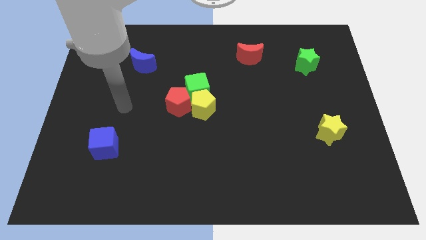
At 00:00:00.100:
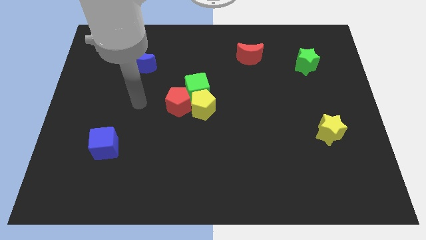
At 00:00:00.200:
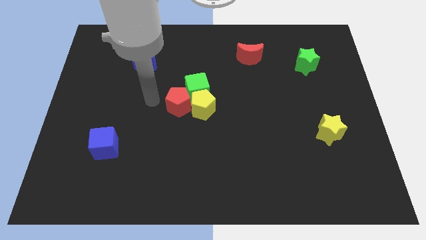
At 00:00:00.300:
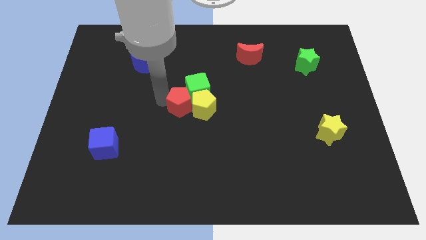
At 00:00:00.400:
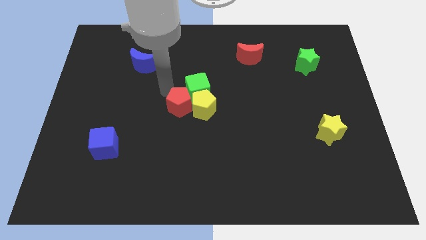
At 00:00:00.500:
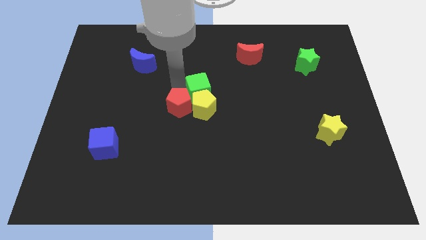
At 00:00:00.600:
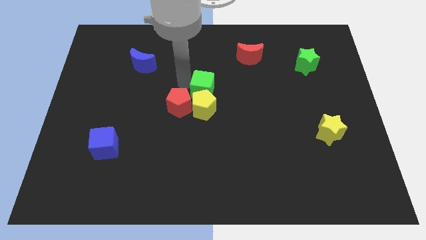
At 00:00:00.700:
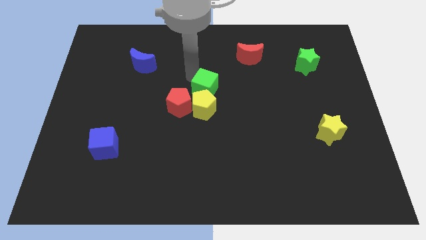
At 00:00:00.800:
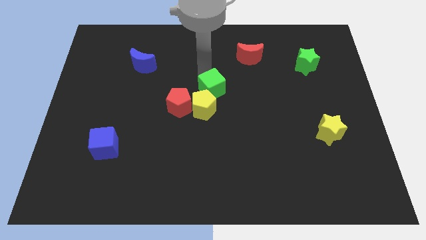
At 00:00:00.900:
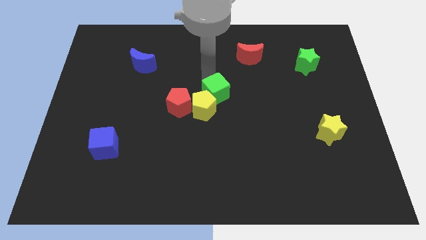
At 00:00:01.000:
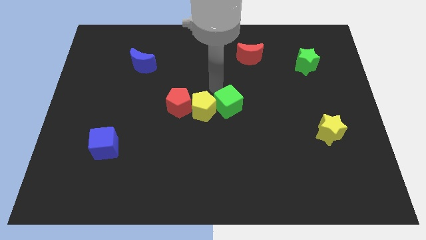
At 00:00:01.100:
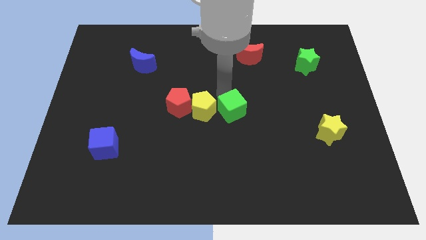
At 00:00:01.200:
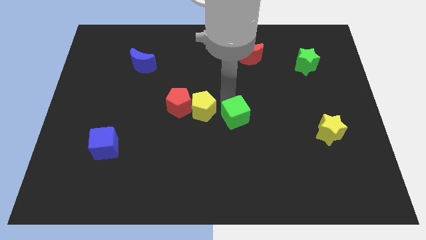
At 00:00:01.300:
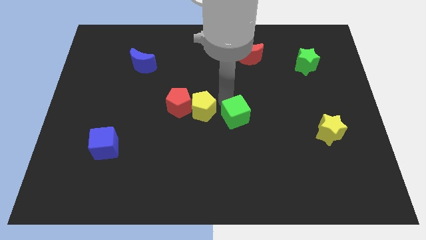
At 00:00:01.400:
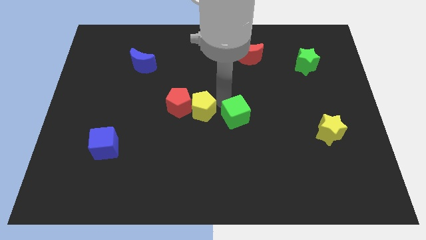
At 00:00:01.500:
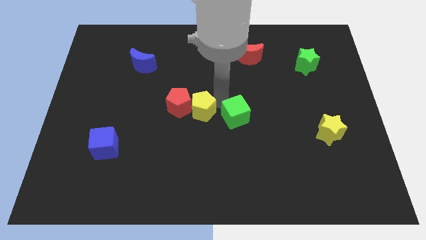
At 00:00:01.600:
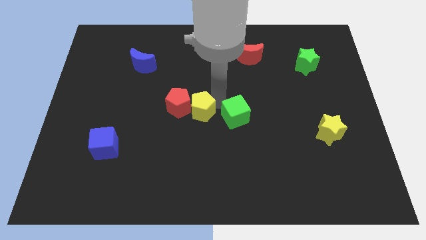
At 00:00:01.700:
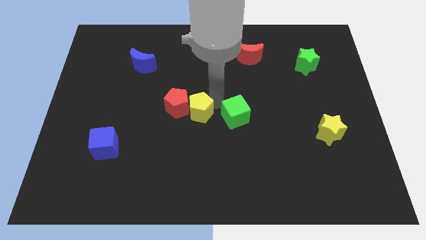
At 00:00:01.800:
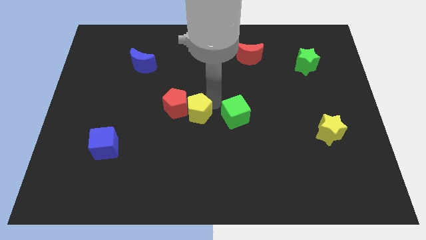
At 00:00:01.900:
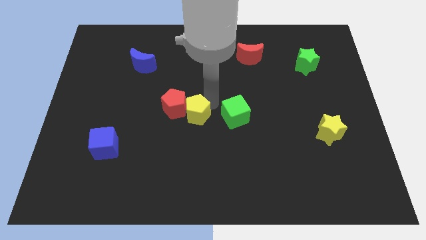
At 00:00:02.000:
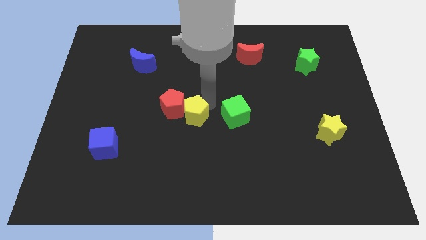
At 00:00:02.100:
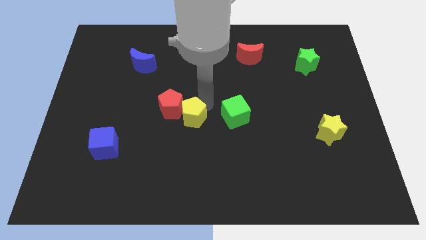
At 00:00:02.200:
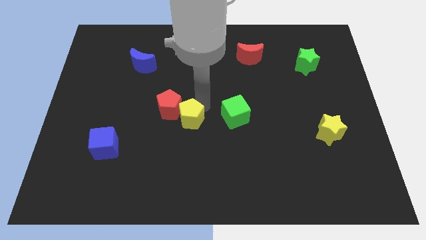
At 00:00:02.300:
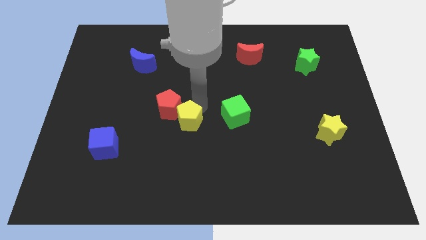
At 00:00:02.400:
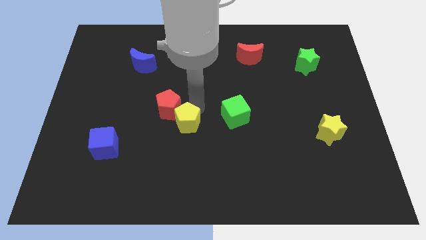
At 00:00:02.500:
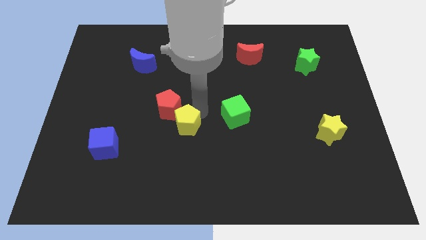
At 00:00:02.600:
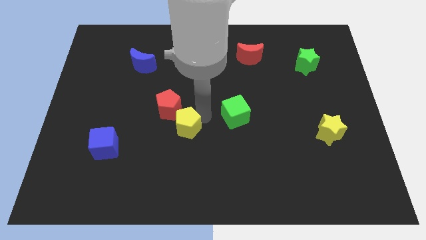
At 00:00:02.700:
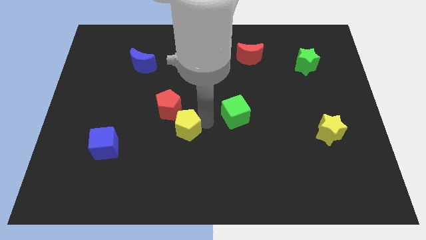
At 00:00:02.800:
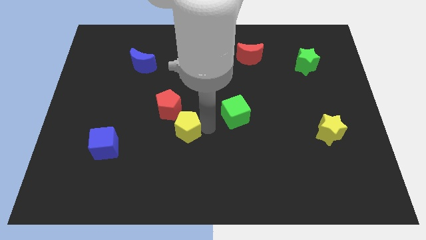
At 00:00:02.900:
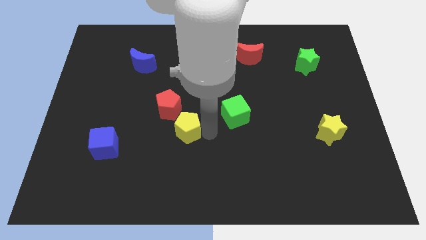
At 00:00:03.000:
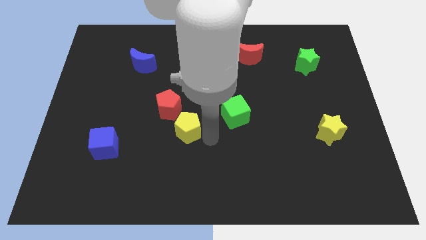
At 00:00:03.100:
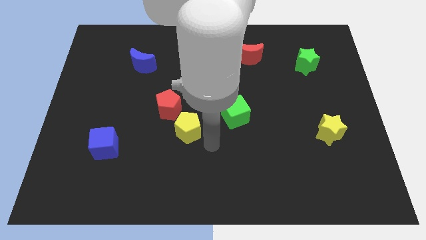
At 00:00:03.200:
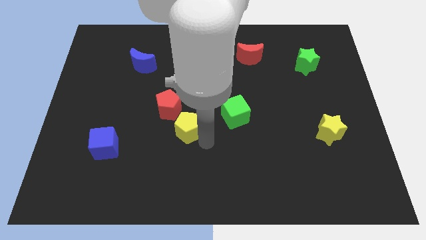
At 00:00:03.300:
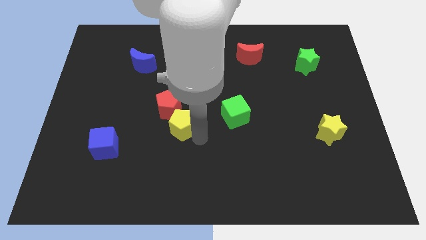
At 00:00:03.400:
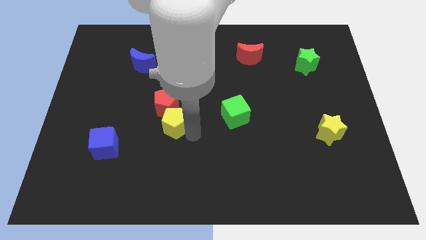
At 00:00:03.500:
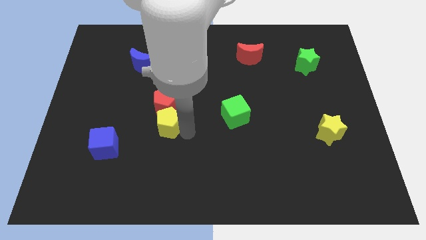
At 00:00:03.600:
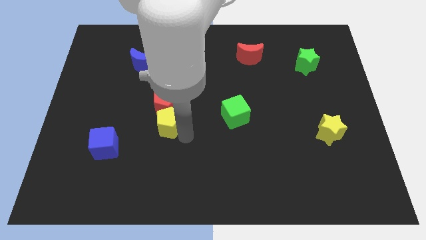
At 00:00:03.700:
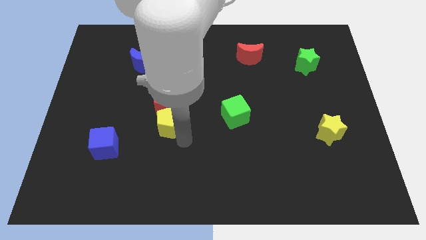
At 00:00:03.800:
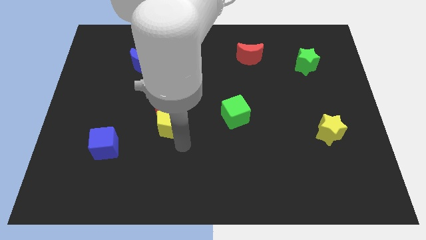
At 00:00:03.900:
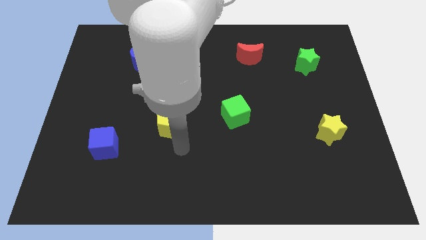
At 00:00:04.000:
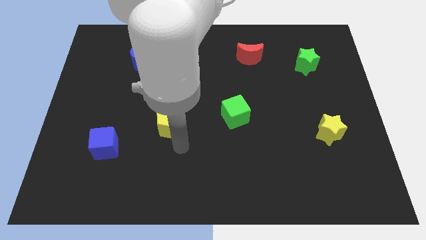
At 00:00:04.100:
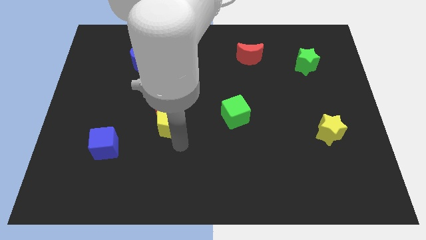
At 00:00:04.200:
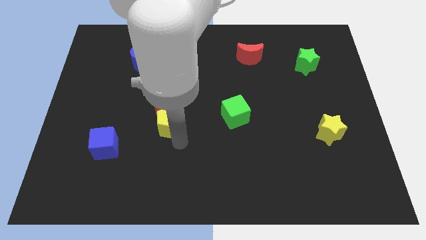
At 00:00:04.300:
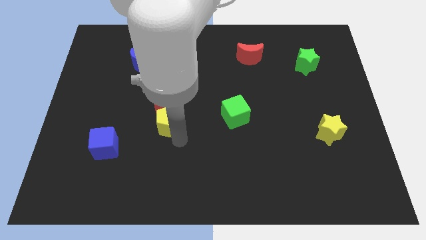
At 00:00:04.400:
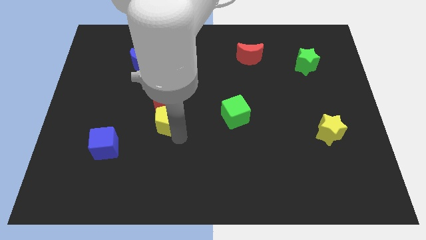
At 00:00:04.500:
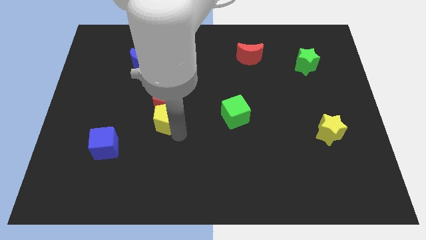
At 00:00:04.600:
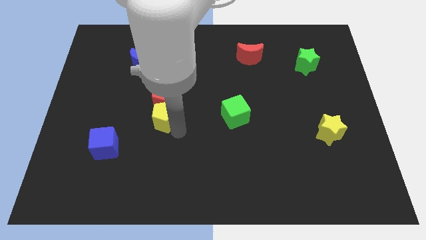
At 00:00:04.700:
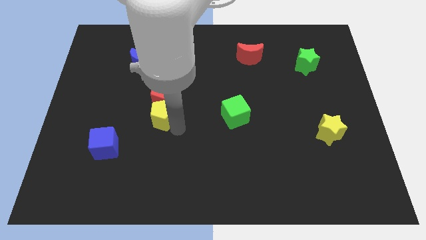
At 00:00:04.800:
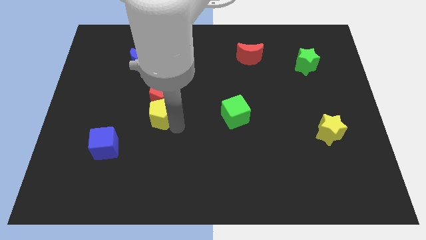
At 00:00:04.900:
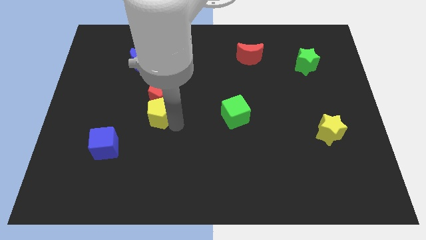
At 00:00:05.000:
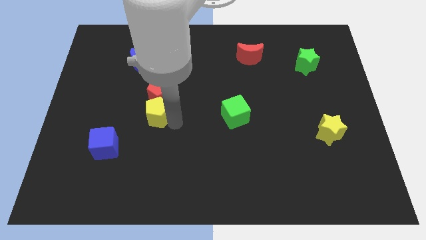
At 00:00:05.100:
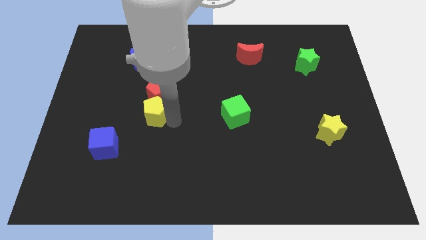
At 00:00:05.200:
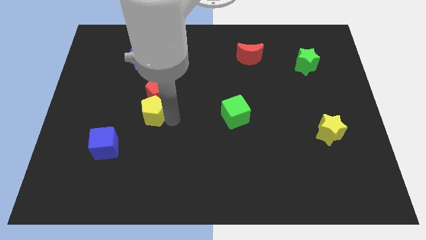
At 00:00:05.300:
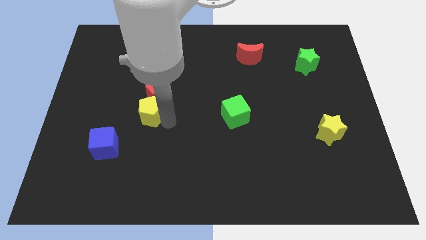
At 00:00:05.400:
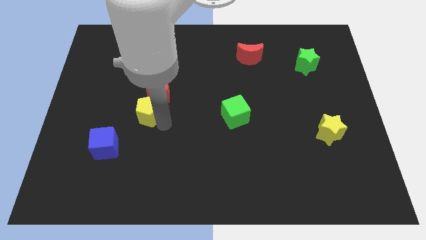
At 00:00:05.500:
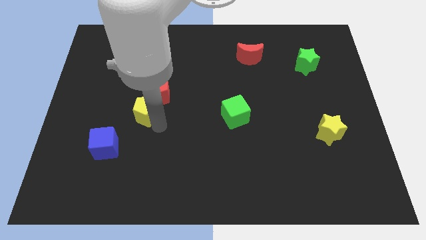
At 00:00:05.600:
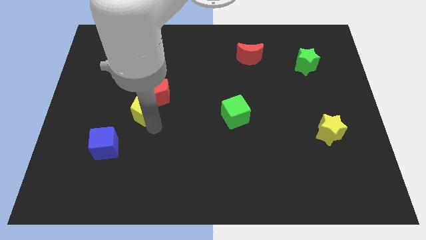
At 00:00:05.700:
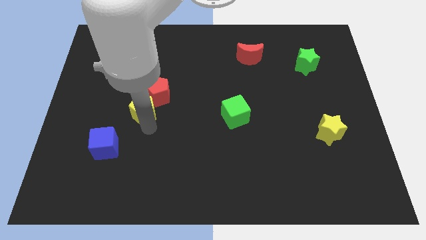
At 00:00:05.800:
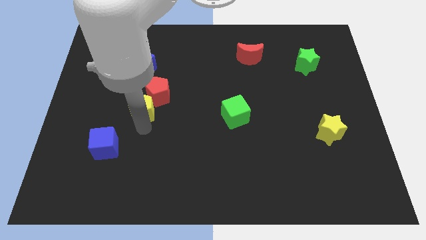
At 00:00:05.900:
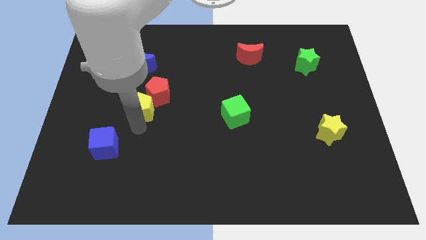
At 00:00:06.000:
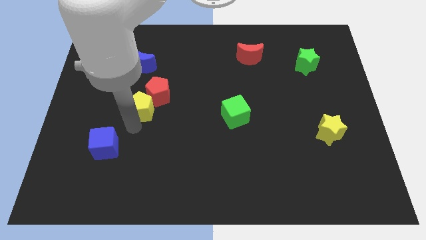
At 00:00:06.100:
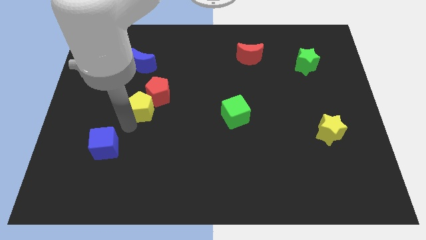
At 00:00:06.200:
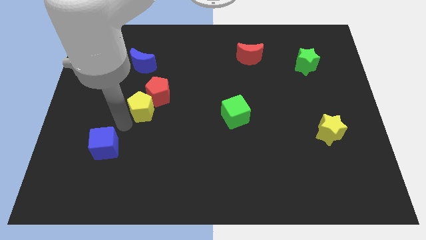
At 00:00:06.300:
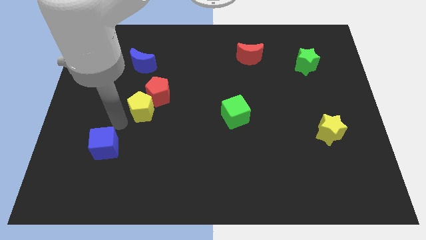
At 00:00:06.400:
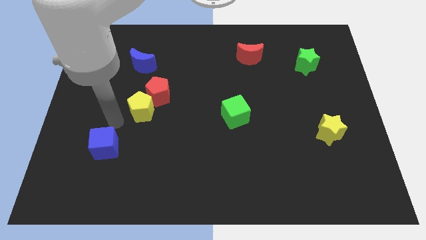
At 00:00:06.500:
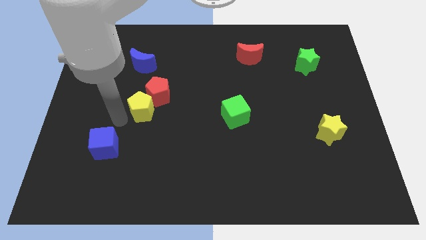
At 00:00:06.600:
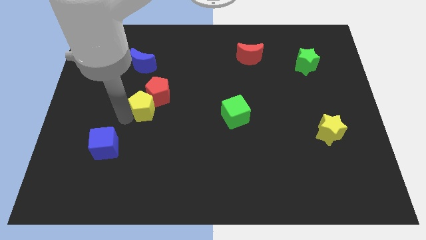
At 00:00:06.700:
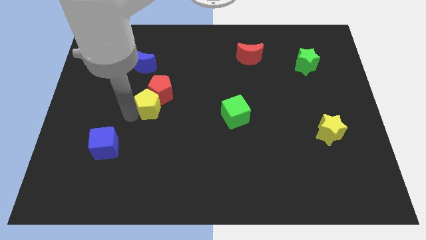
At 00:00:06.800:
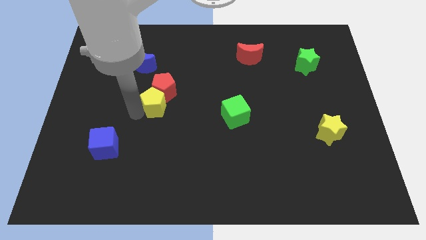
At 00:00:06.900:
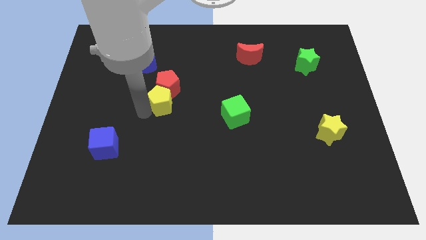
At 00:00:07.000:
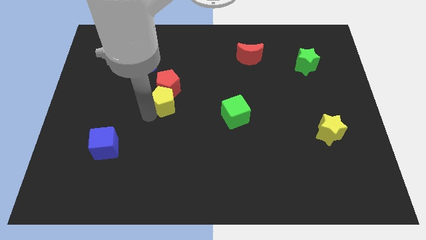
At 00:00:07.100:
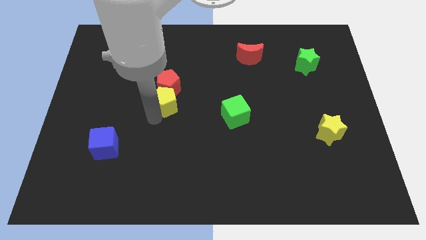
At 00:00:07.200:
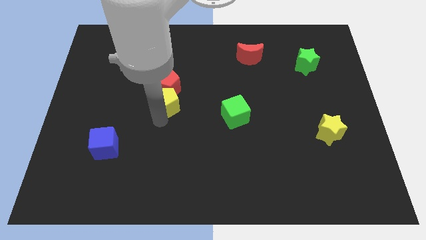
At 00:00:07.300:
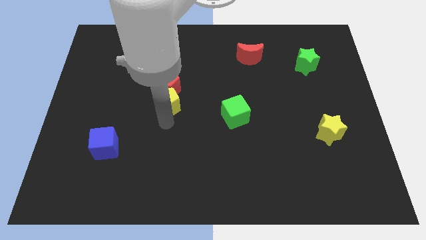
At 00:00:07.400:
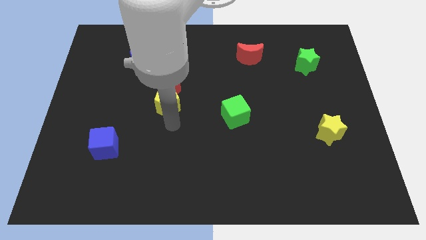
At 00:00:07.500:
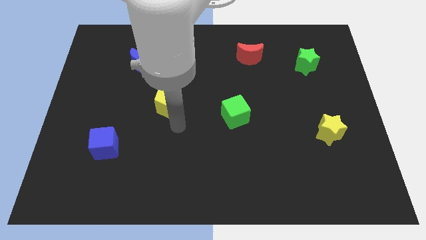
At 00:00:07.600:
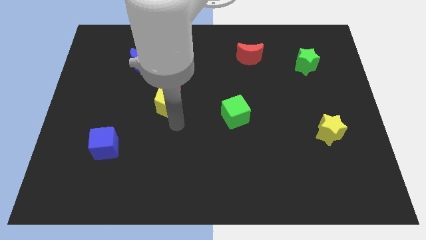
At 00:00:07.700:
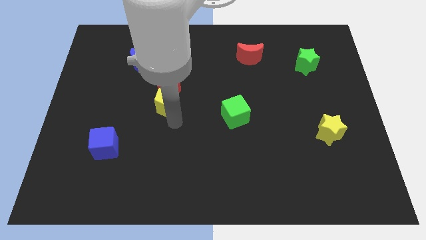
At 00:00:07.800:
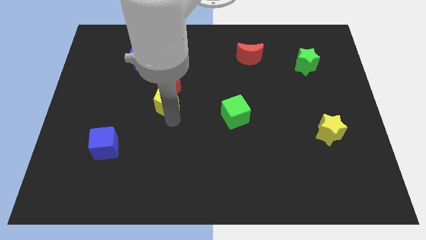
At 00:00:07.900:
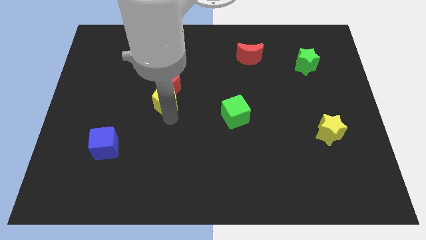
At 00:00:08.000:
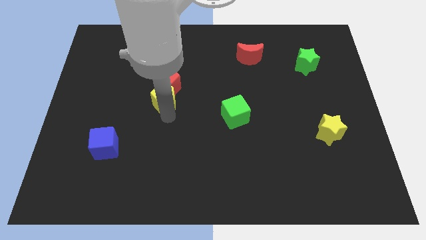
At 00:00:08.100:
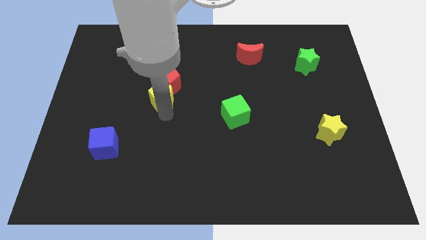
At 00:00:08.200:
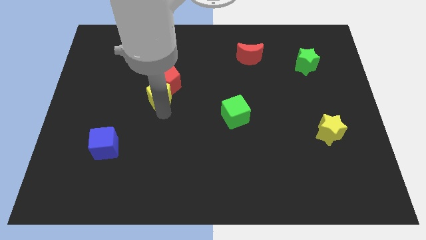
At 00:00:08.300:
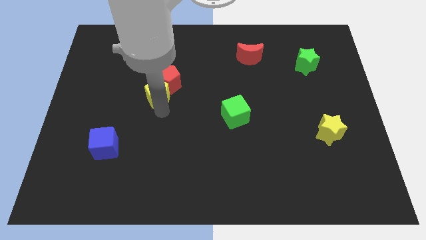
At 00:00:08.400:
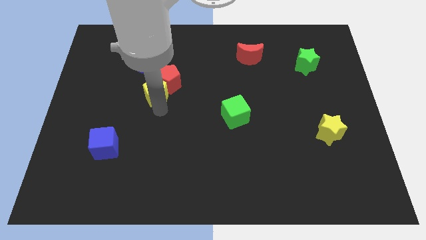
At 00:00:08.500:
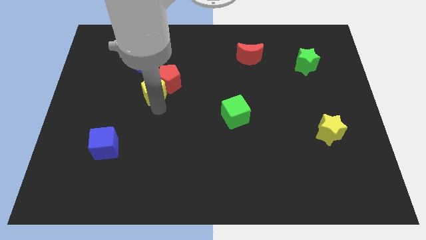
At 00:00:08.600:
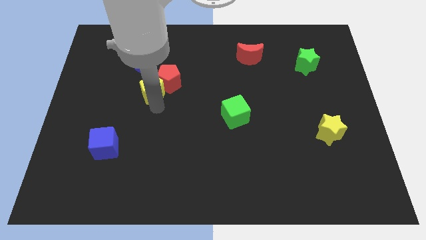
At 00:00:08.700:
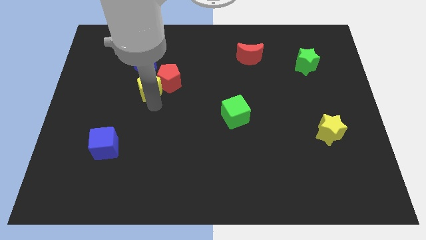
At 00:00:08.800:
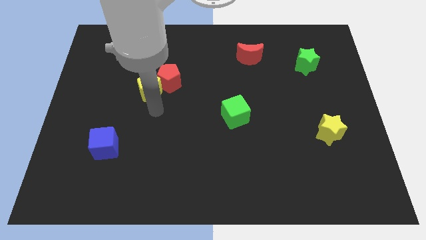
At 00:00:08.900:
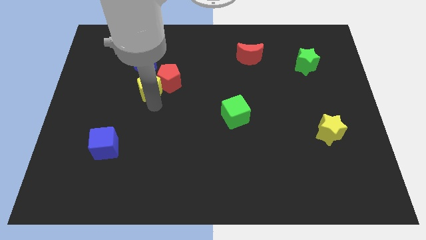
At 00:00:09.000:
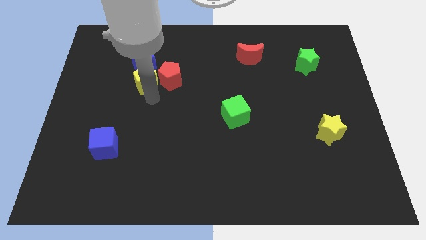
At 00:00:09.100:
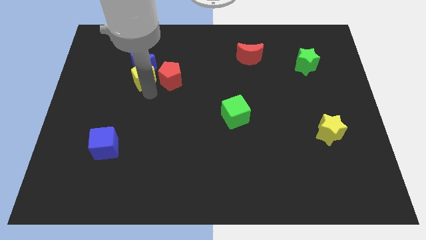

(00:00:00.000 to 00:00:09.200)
move the yellow pentagon towards the blue moon
